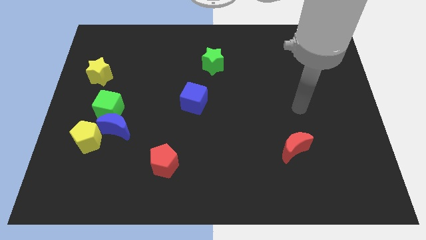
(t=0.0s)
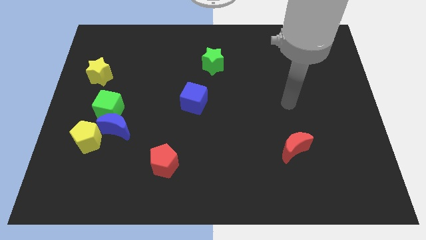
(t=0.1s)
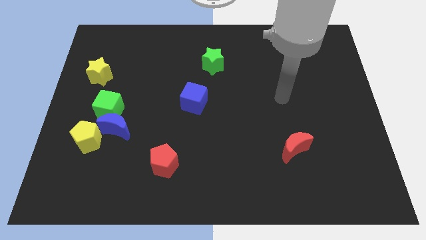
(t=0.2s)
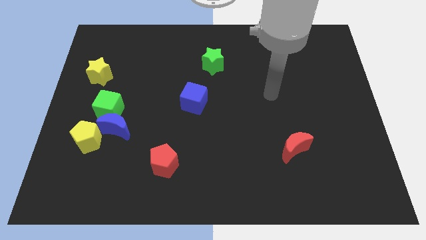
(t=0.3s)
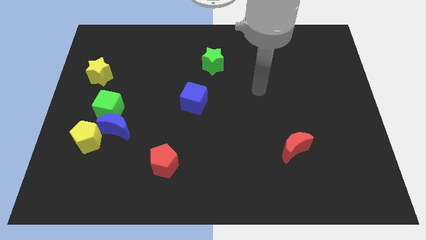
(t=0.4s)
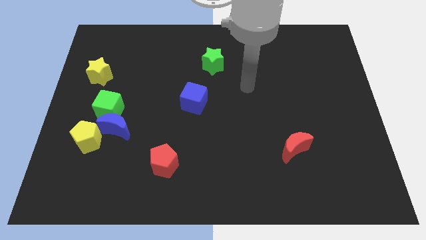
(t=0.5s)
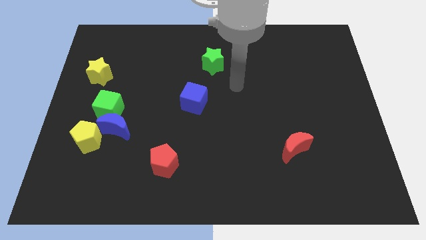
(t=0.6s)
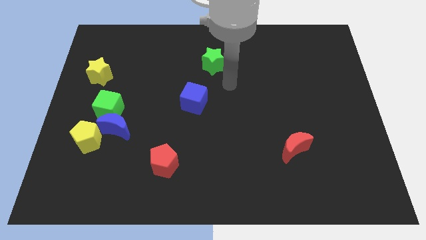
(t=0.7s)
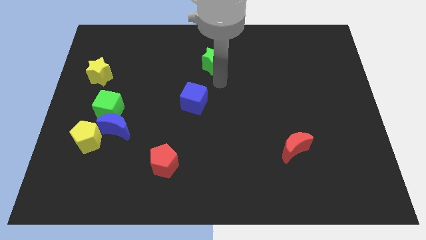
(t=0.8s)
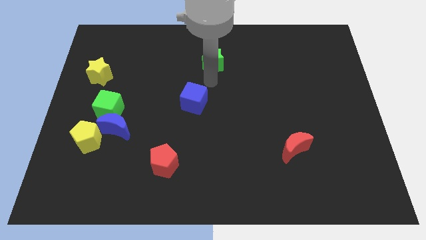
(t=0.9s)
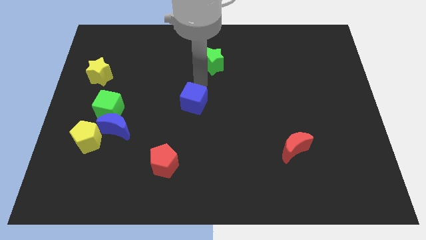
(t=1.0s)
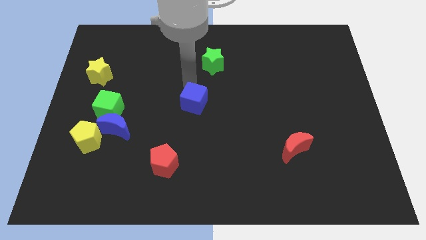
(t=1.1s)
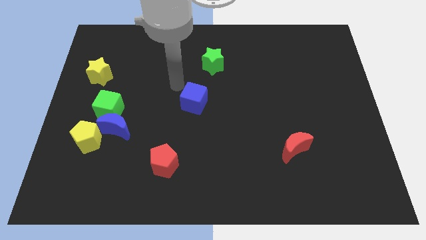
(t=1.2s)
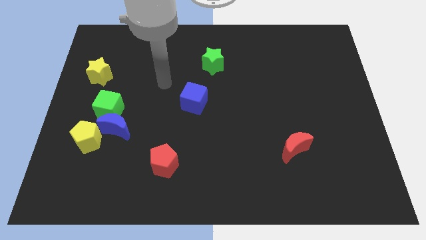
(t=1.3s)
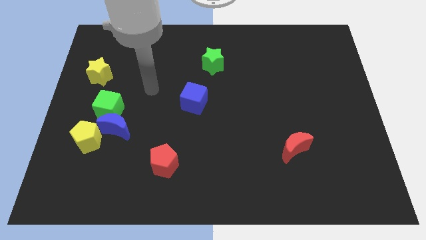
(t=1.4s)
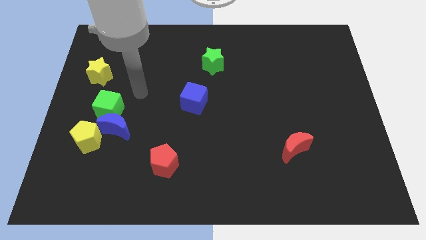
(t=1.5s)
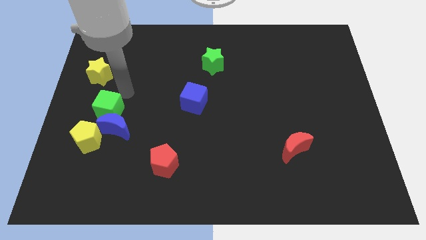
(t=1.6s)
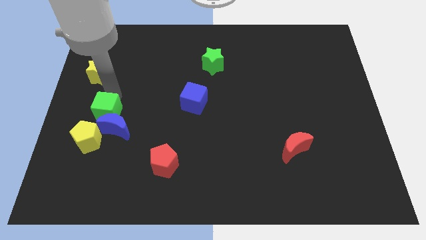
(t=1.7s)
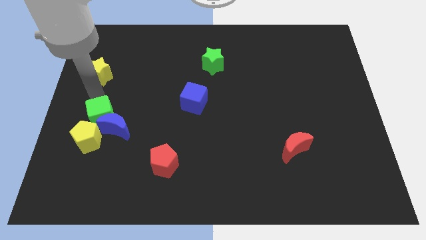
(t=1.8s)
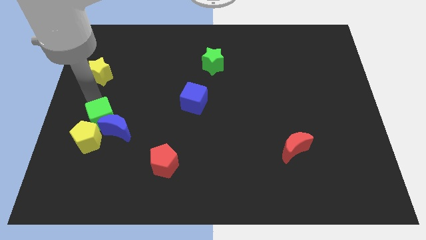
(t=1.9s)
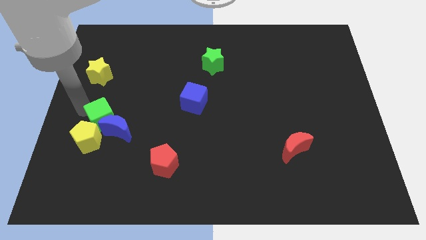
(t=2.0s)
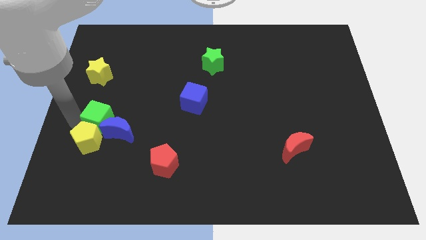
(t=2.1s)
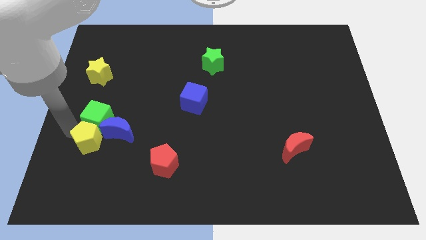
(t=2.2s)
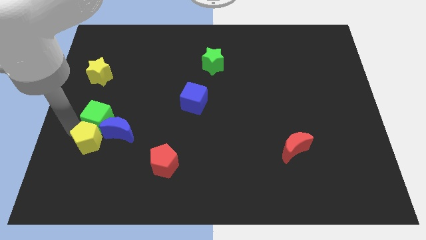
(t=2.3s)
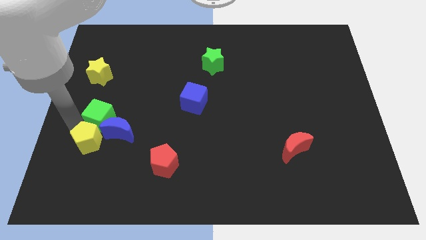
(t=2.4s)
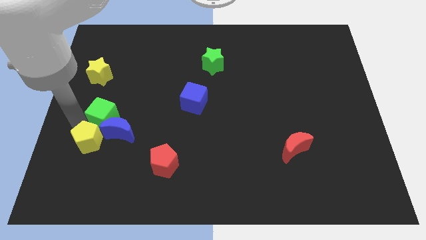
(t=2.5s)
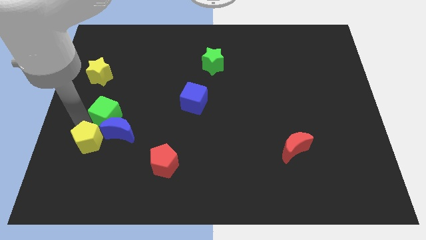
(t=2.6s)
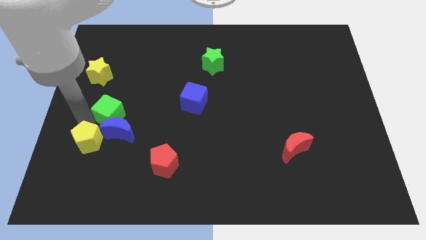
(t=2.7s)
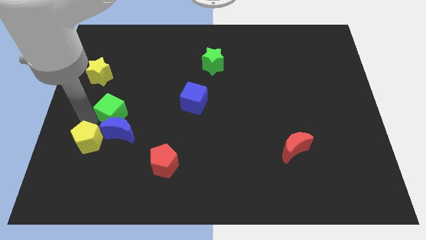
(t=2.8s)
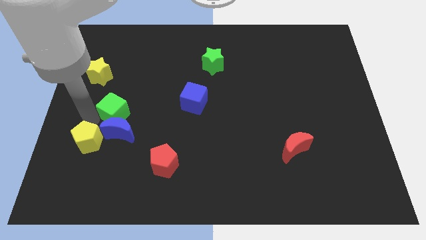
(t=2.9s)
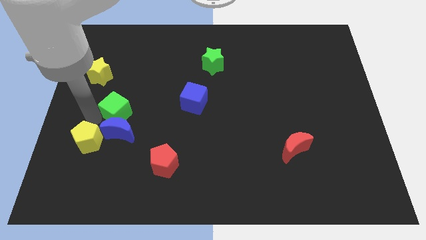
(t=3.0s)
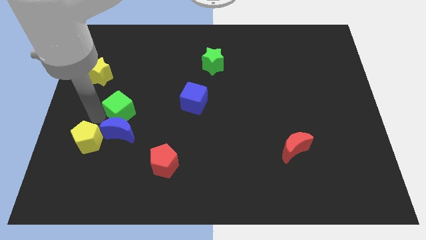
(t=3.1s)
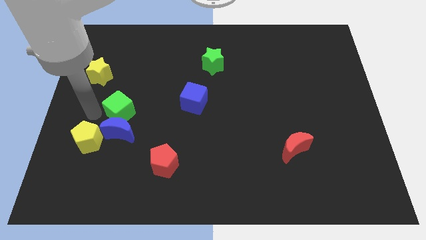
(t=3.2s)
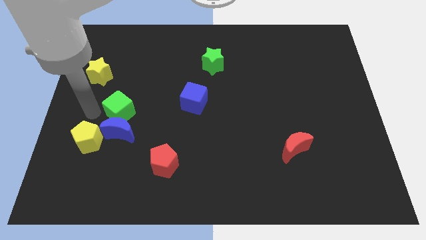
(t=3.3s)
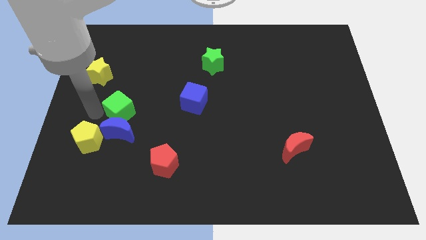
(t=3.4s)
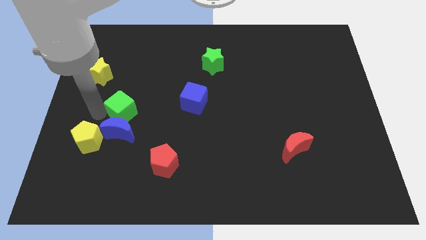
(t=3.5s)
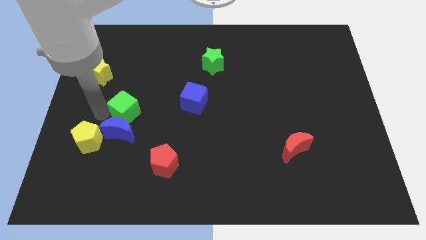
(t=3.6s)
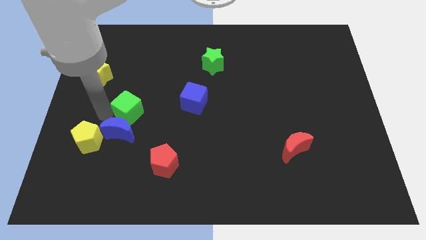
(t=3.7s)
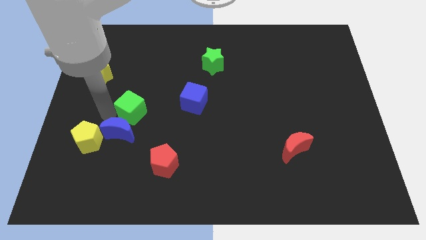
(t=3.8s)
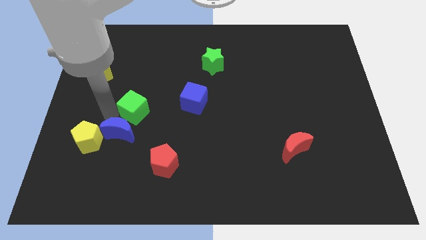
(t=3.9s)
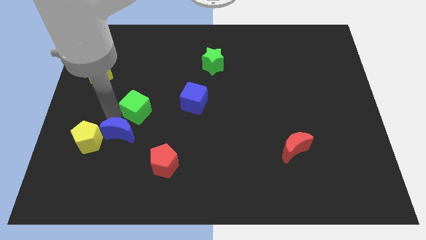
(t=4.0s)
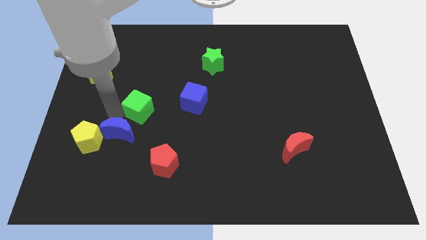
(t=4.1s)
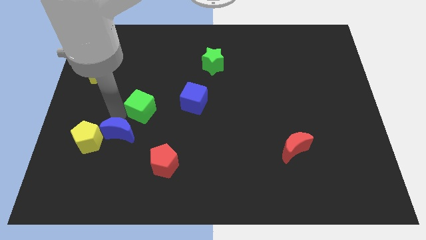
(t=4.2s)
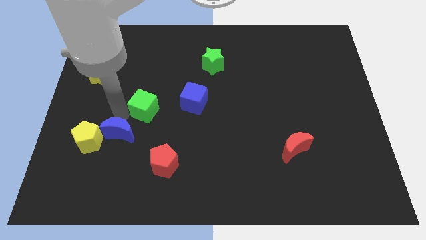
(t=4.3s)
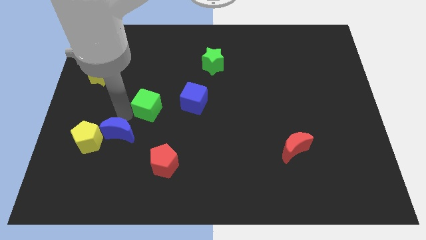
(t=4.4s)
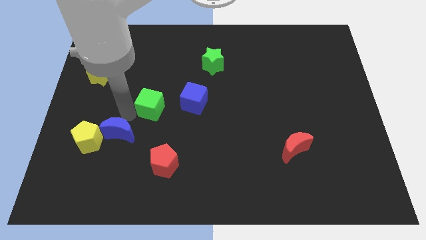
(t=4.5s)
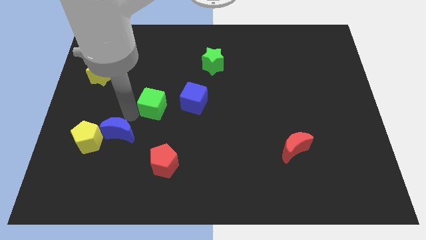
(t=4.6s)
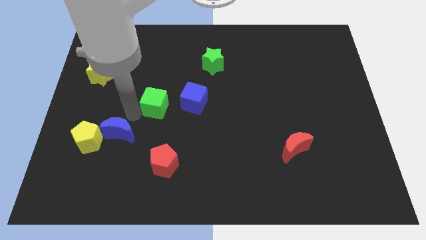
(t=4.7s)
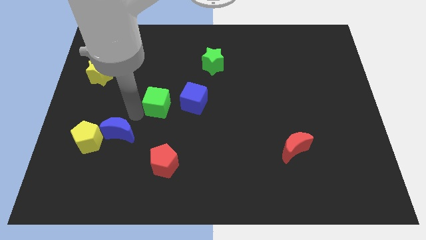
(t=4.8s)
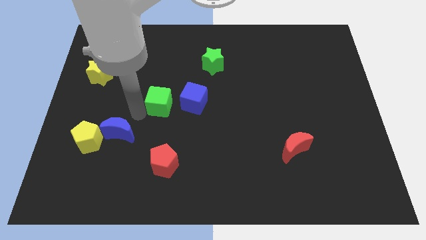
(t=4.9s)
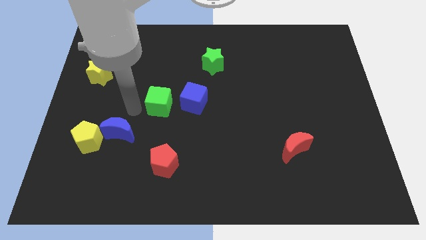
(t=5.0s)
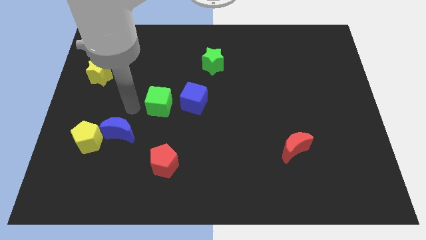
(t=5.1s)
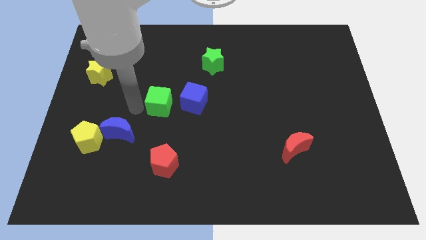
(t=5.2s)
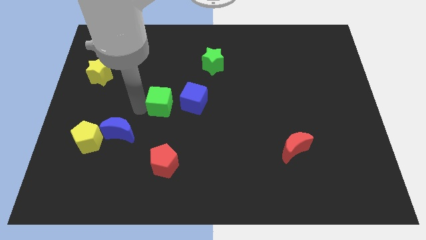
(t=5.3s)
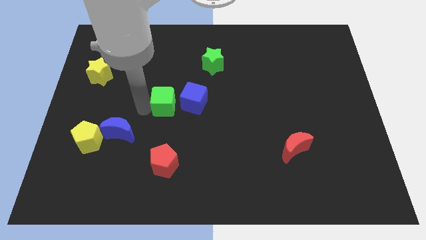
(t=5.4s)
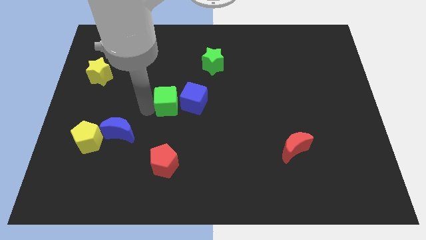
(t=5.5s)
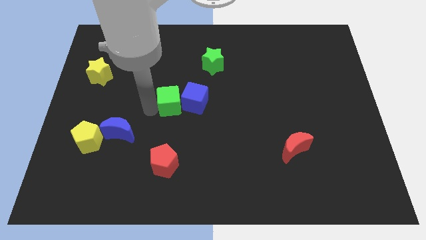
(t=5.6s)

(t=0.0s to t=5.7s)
push the green cube close to the blue cube

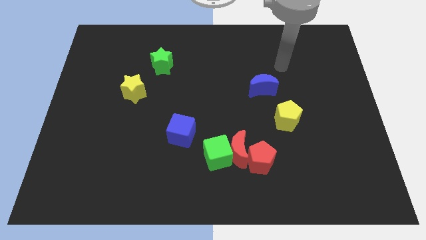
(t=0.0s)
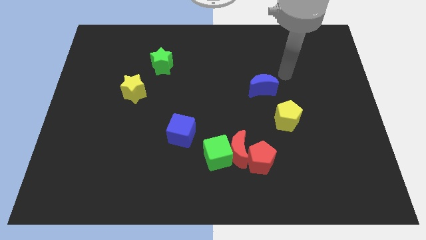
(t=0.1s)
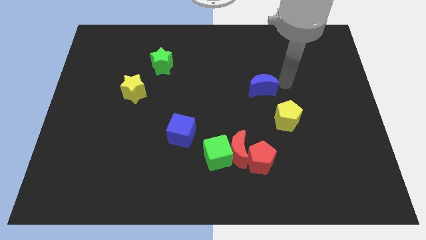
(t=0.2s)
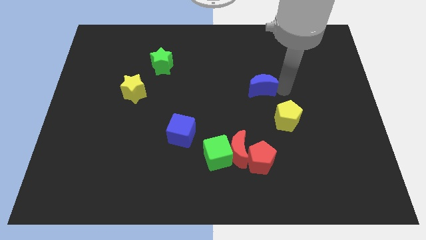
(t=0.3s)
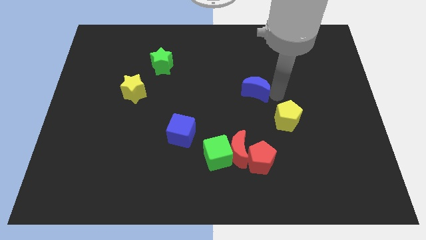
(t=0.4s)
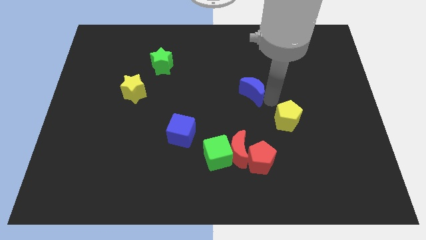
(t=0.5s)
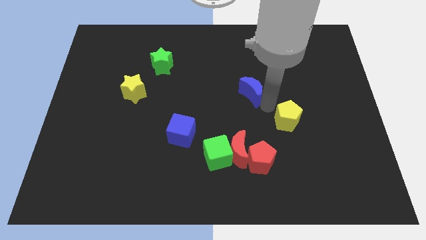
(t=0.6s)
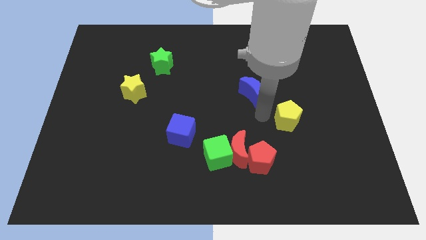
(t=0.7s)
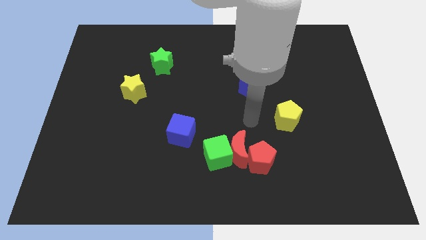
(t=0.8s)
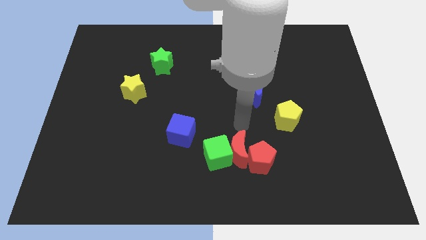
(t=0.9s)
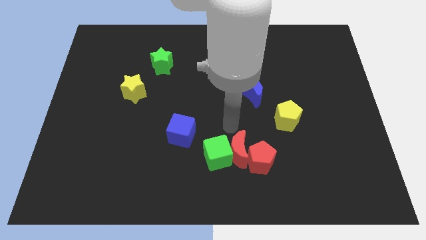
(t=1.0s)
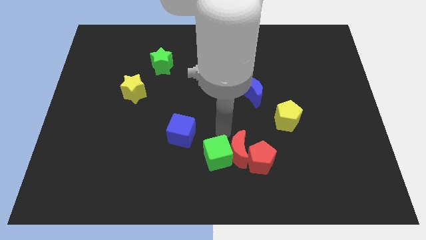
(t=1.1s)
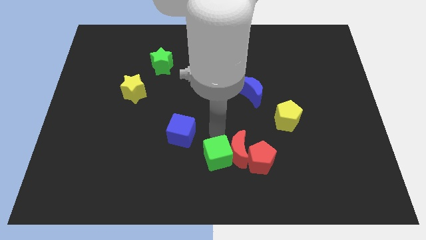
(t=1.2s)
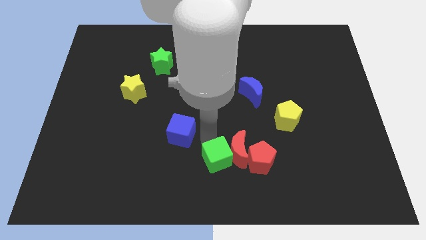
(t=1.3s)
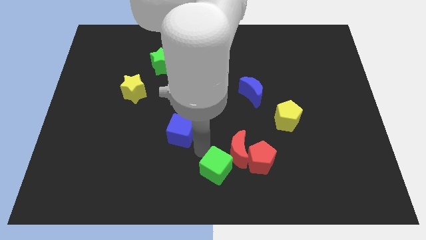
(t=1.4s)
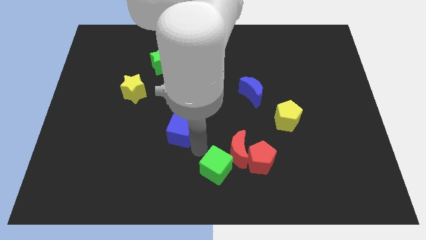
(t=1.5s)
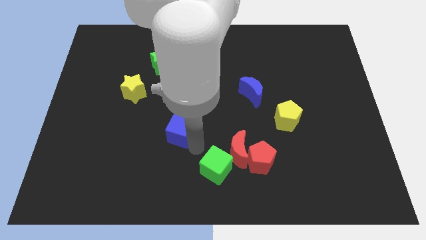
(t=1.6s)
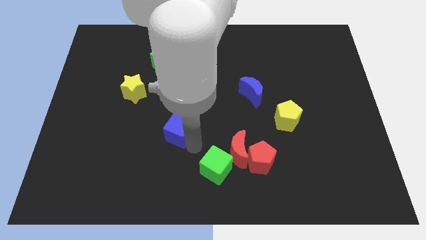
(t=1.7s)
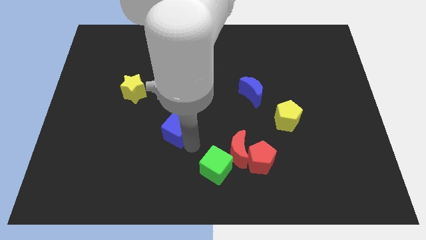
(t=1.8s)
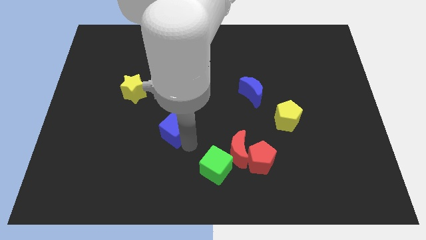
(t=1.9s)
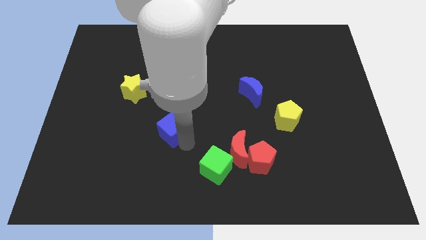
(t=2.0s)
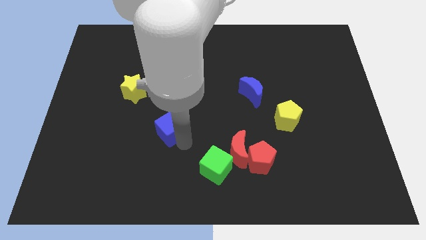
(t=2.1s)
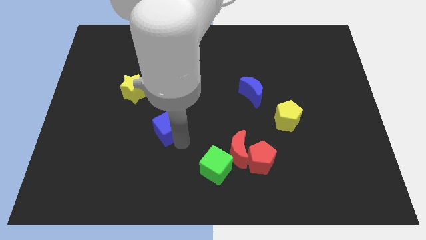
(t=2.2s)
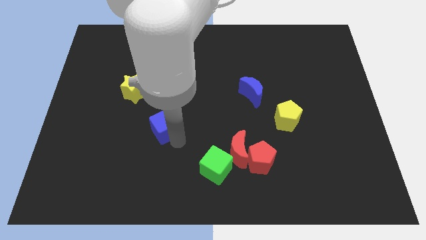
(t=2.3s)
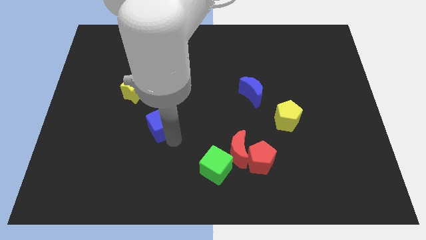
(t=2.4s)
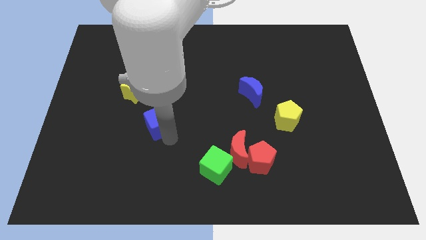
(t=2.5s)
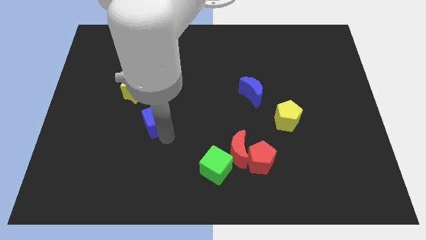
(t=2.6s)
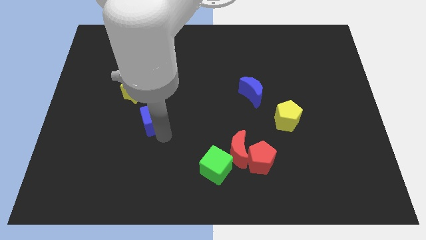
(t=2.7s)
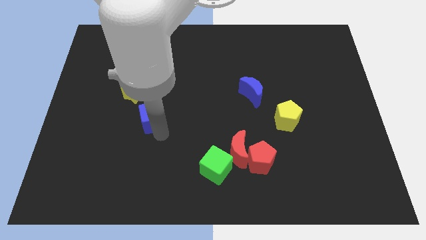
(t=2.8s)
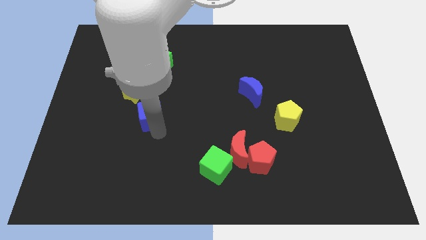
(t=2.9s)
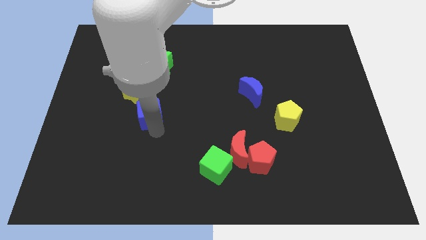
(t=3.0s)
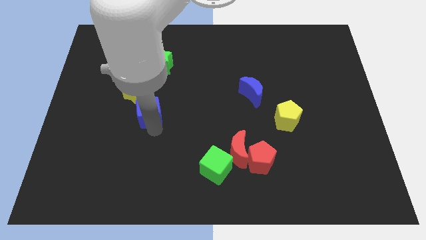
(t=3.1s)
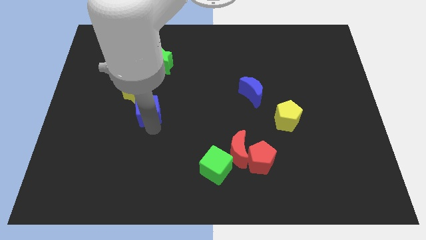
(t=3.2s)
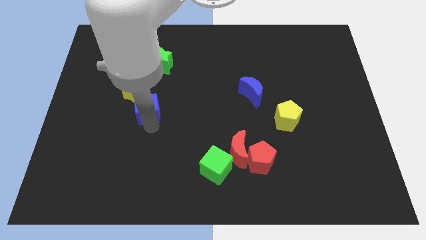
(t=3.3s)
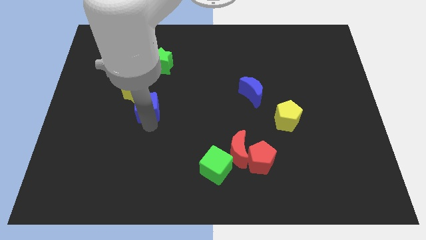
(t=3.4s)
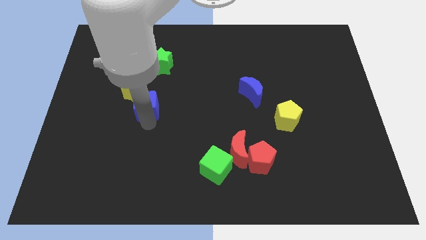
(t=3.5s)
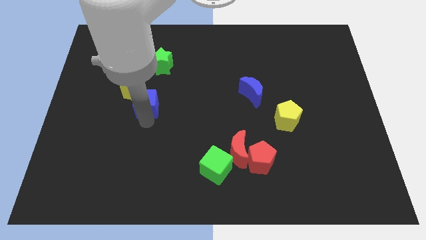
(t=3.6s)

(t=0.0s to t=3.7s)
slide the blue cube next to the yellow star
